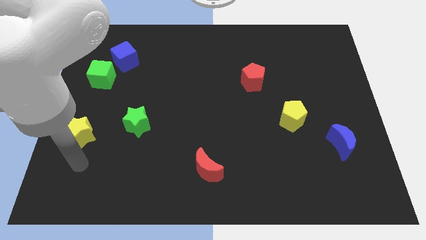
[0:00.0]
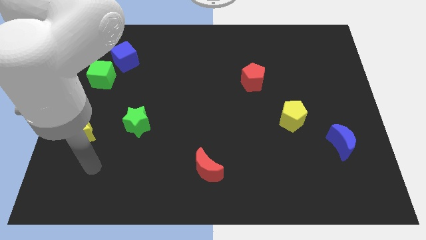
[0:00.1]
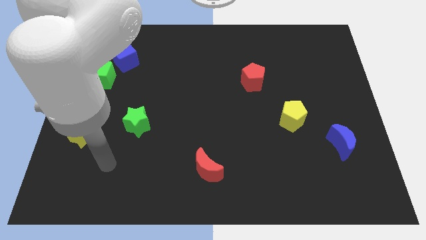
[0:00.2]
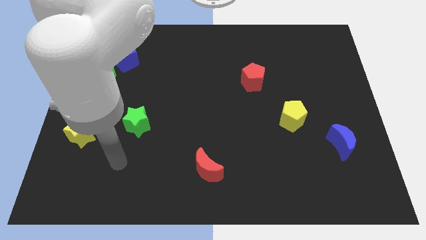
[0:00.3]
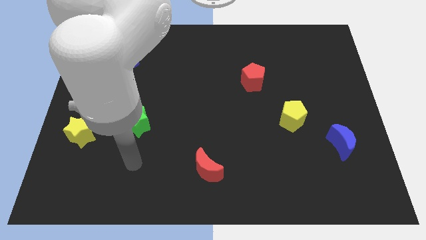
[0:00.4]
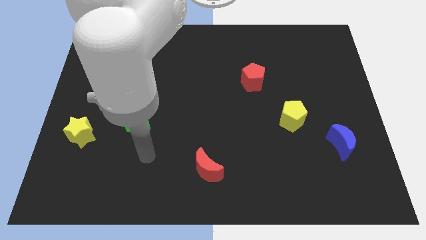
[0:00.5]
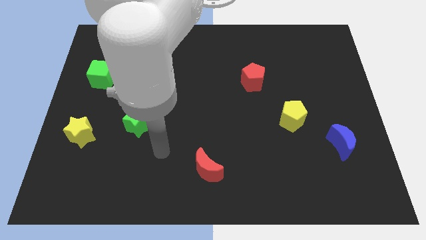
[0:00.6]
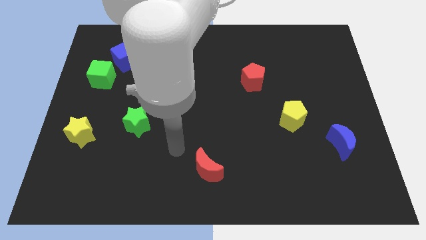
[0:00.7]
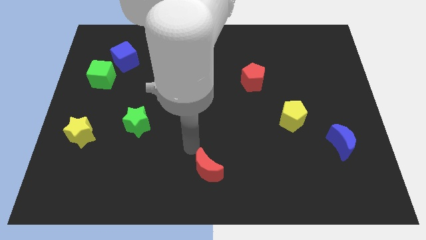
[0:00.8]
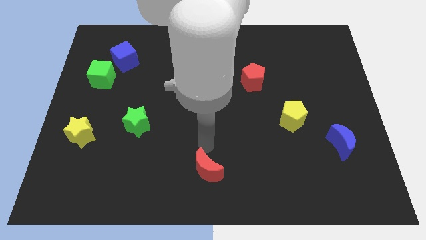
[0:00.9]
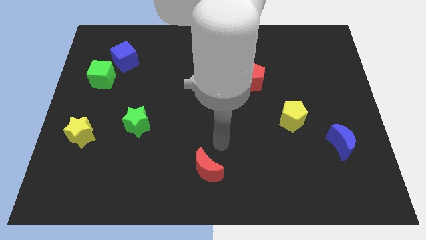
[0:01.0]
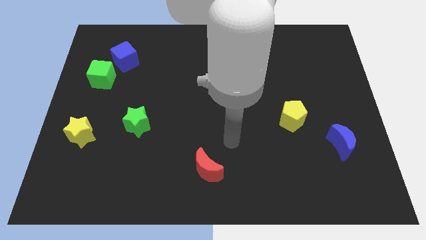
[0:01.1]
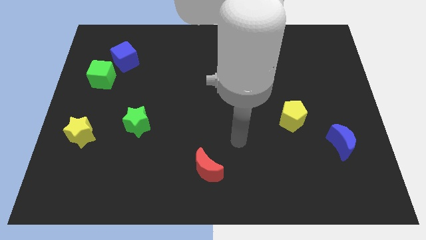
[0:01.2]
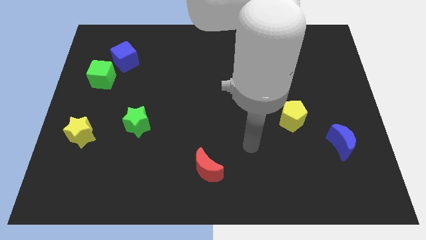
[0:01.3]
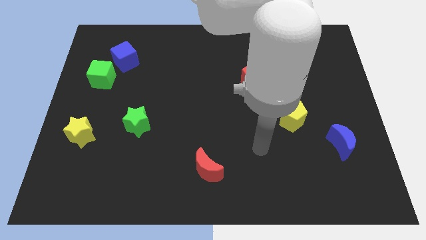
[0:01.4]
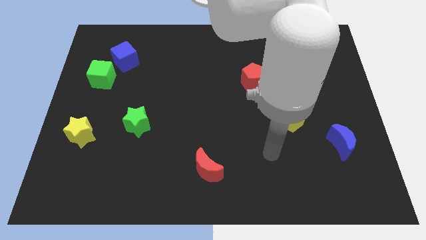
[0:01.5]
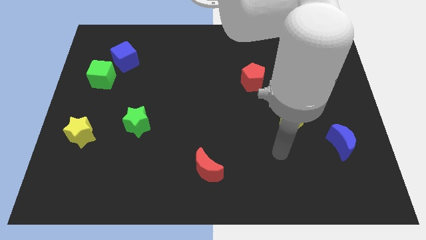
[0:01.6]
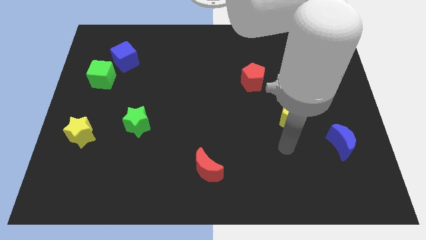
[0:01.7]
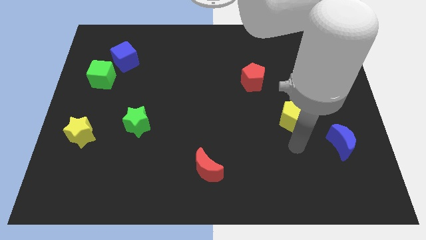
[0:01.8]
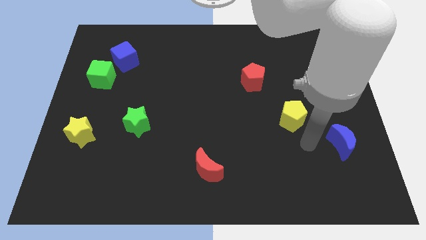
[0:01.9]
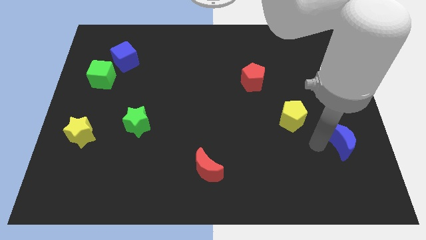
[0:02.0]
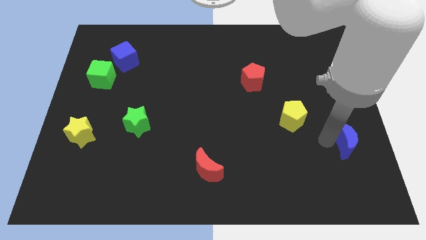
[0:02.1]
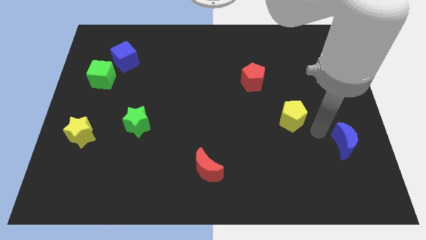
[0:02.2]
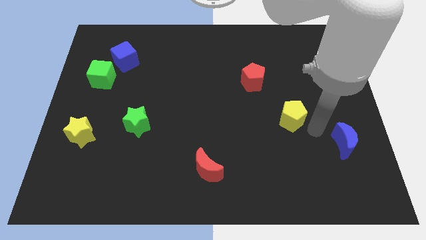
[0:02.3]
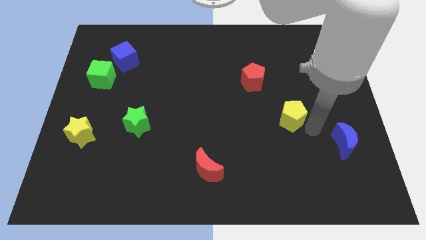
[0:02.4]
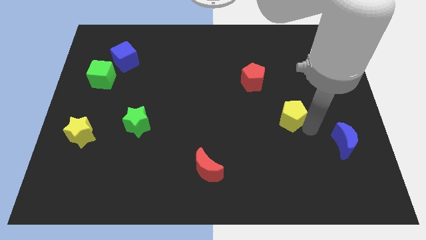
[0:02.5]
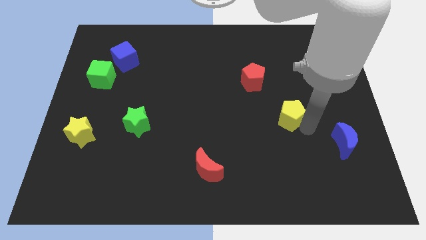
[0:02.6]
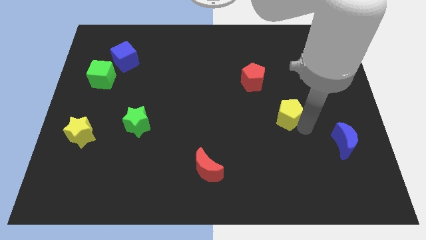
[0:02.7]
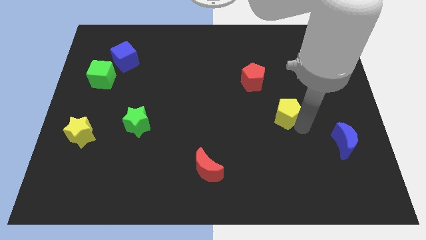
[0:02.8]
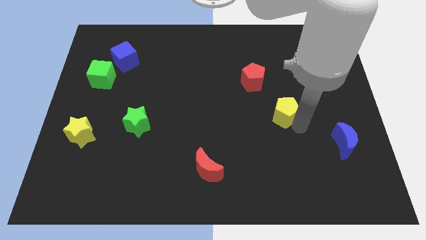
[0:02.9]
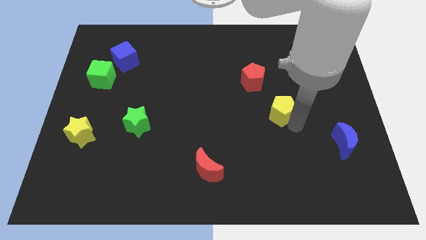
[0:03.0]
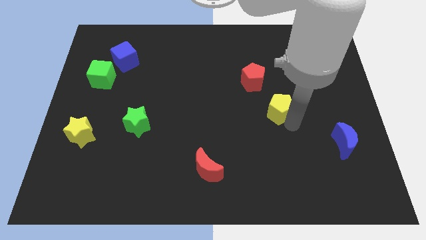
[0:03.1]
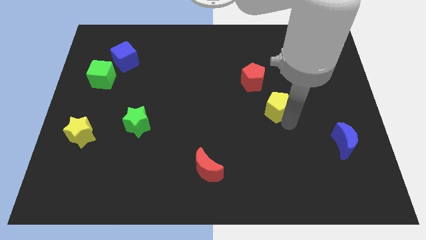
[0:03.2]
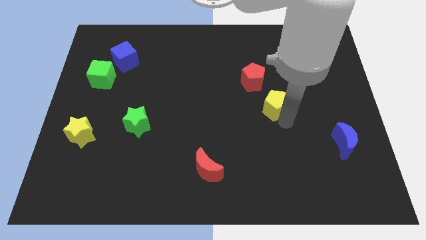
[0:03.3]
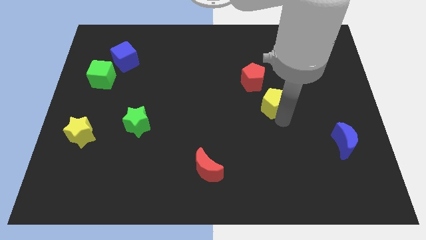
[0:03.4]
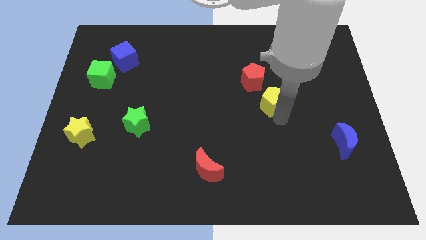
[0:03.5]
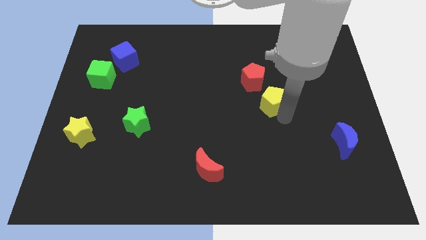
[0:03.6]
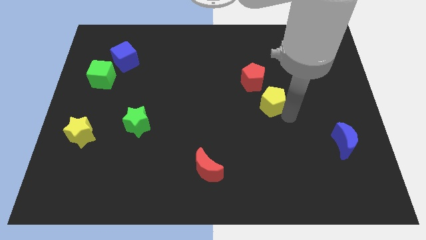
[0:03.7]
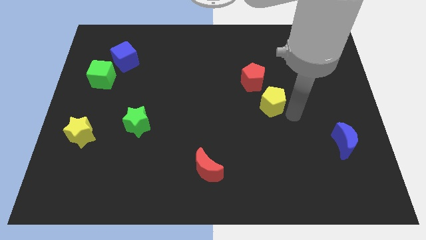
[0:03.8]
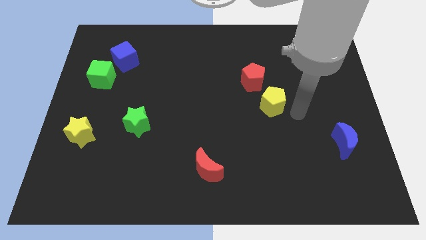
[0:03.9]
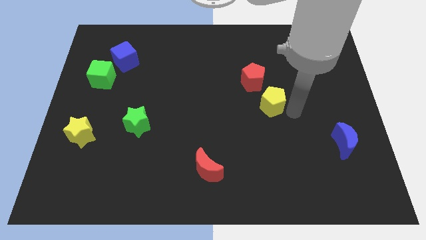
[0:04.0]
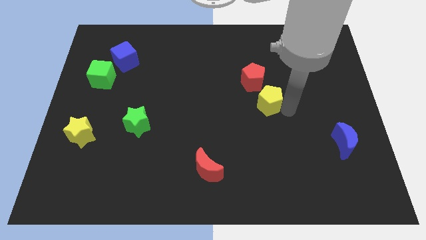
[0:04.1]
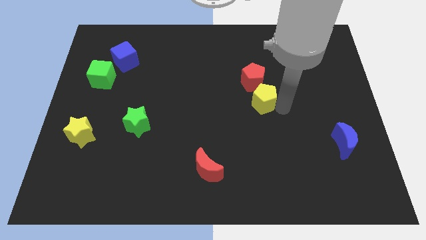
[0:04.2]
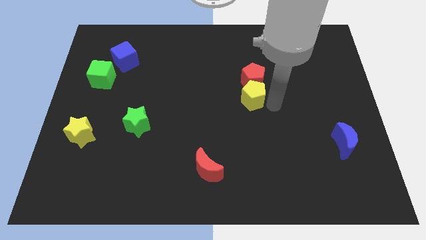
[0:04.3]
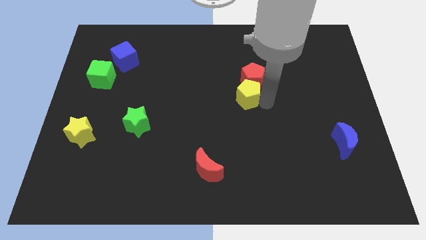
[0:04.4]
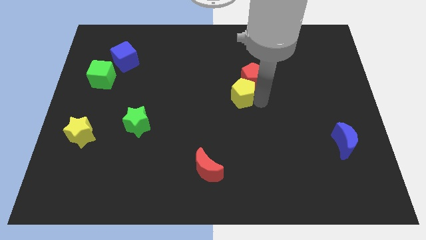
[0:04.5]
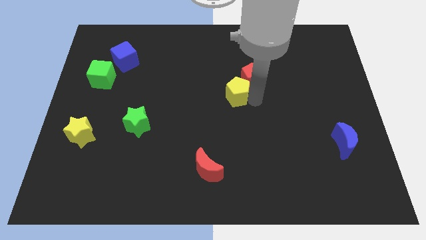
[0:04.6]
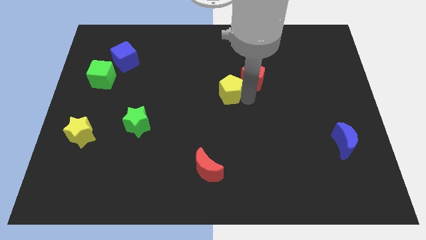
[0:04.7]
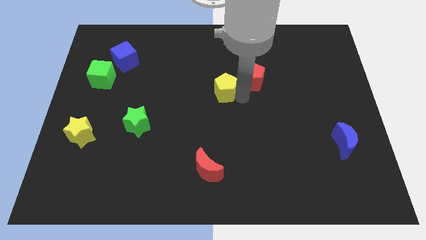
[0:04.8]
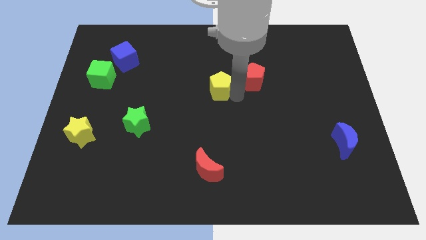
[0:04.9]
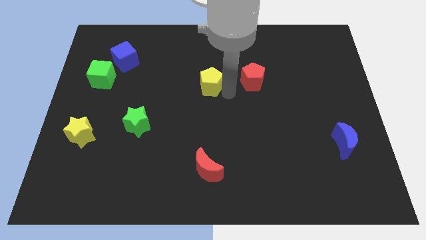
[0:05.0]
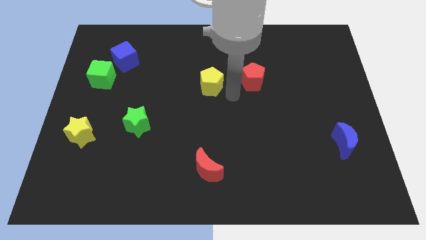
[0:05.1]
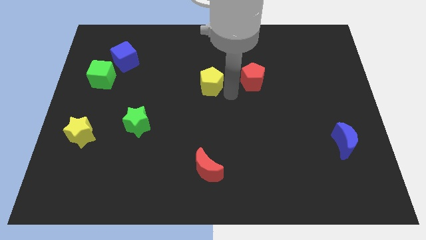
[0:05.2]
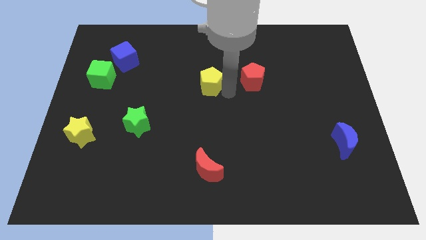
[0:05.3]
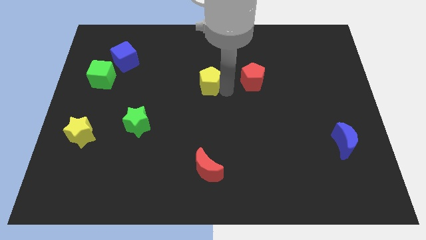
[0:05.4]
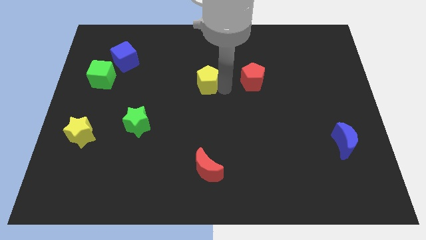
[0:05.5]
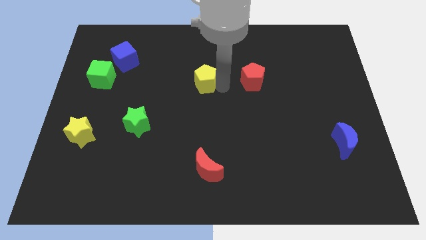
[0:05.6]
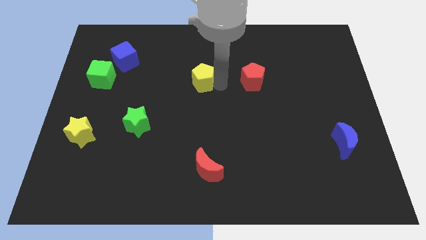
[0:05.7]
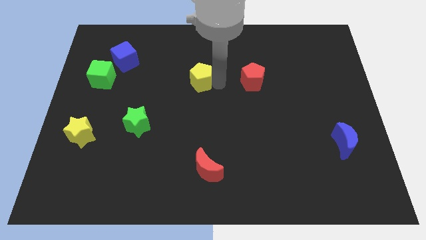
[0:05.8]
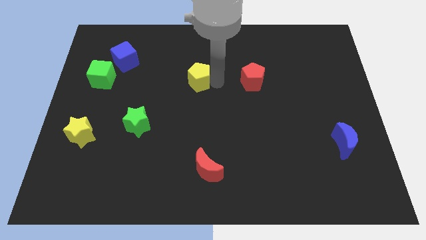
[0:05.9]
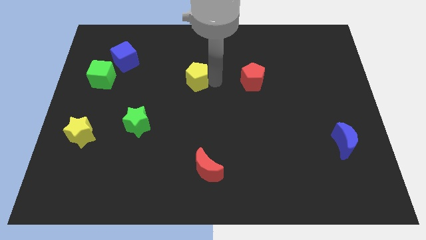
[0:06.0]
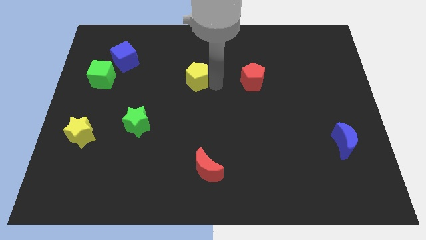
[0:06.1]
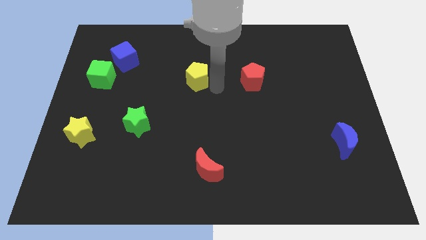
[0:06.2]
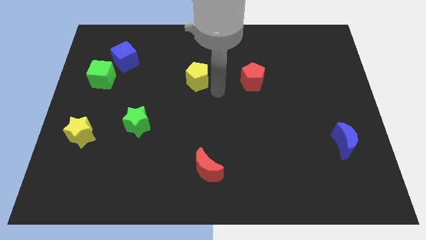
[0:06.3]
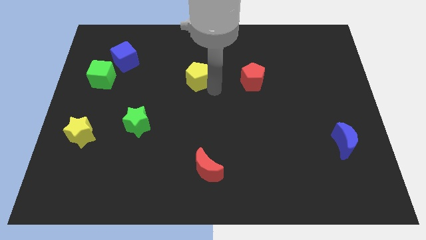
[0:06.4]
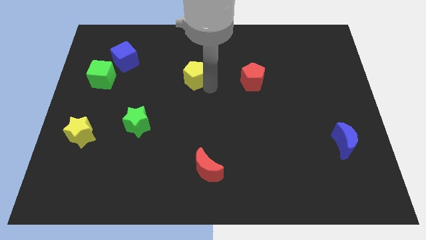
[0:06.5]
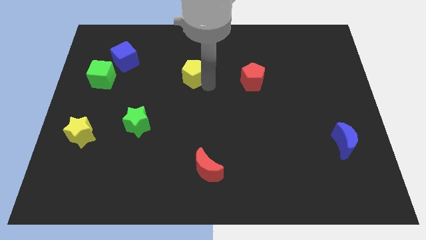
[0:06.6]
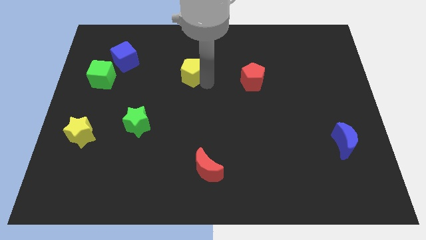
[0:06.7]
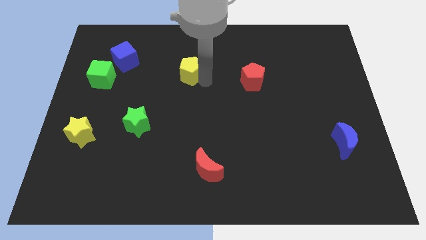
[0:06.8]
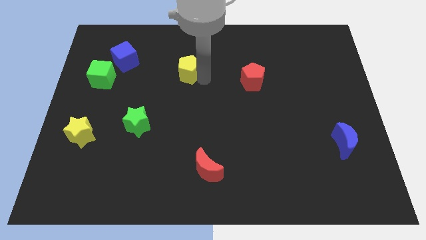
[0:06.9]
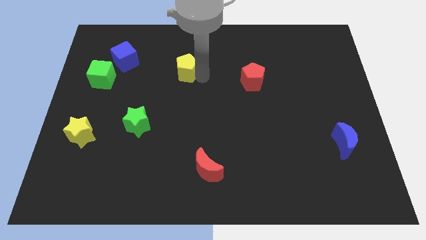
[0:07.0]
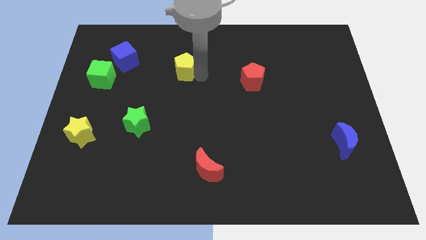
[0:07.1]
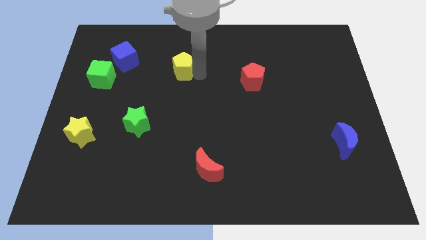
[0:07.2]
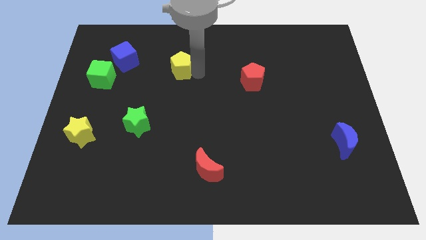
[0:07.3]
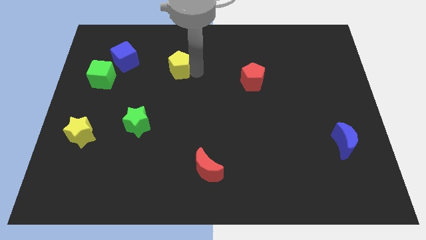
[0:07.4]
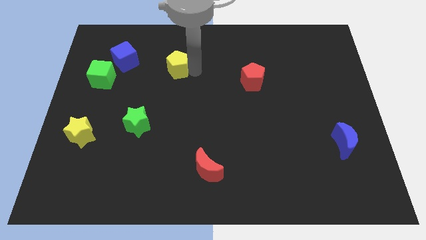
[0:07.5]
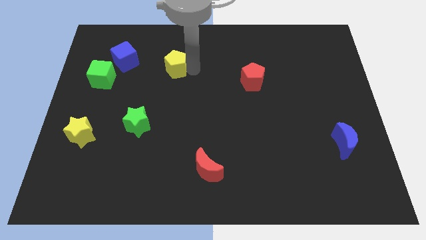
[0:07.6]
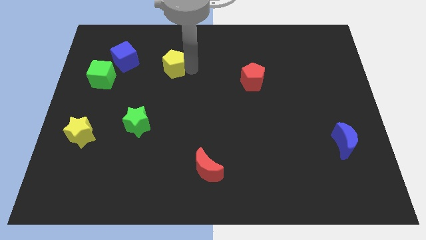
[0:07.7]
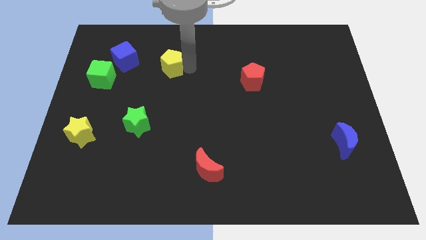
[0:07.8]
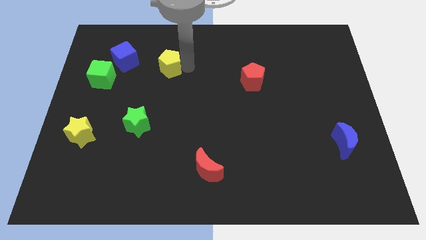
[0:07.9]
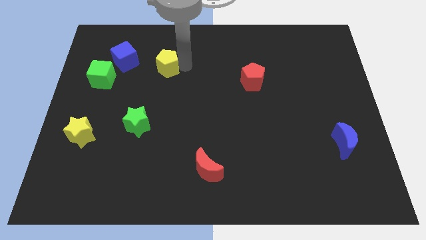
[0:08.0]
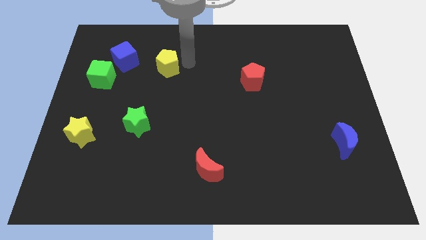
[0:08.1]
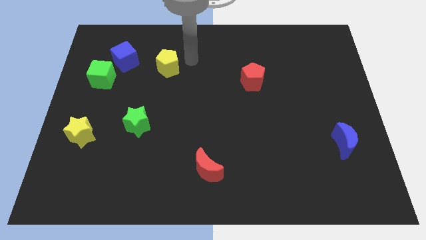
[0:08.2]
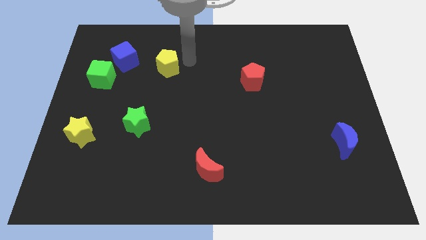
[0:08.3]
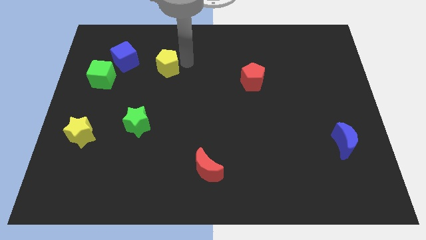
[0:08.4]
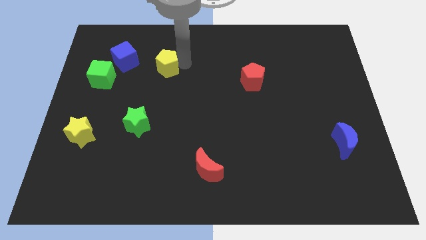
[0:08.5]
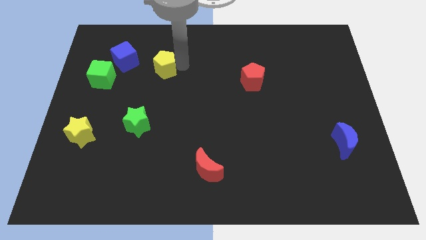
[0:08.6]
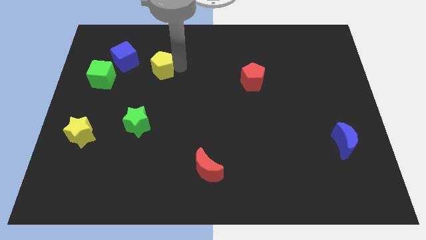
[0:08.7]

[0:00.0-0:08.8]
put the yellow pentagon diagonally down and to the right of the blue cube
